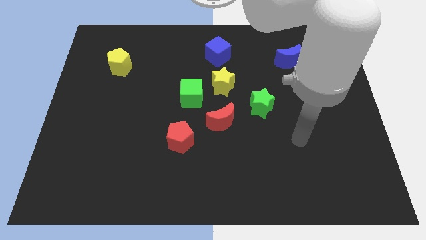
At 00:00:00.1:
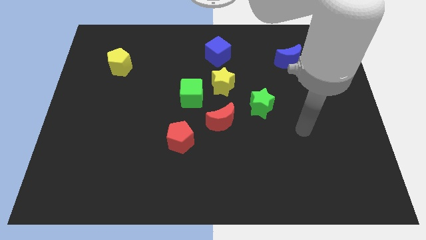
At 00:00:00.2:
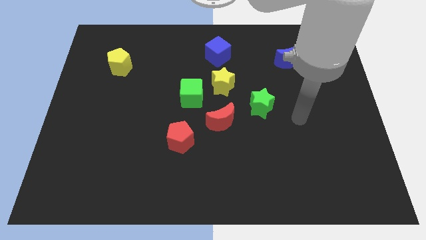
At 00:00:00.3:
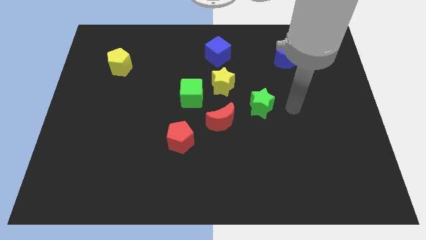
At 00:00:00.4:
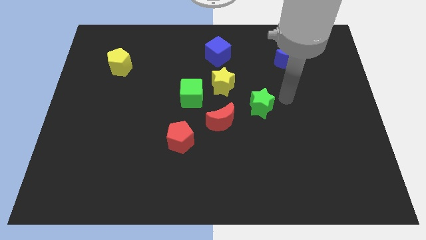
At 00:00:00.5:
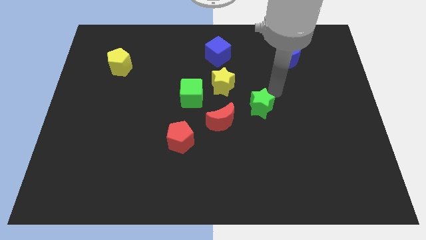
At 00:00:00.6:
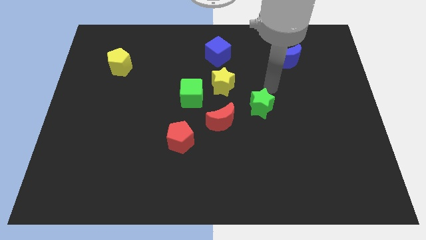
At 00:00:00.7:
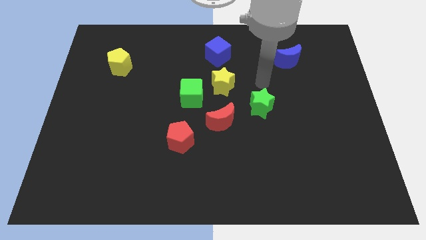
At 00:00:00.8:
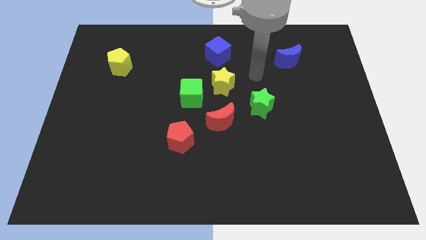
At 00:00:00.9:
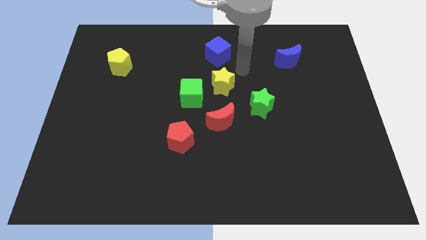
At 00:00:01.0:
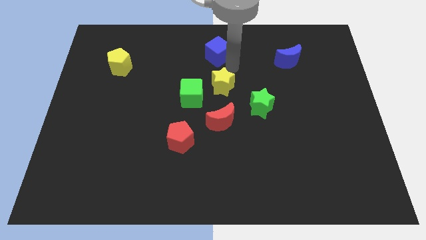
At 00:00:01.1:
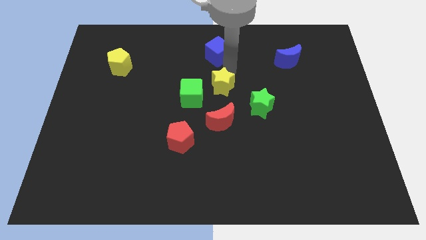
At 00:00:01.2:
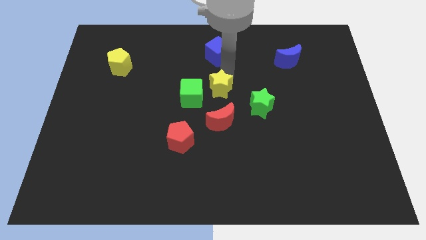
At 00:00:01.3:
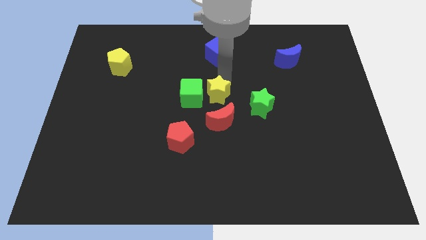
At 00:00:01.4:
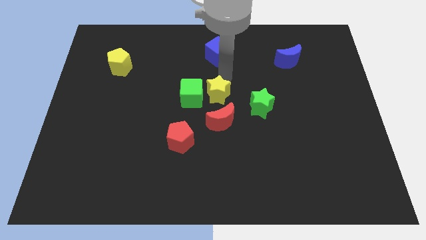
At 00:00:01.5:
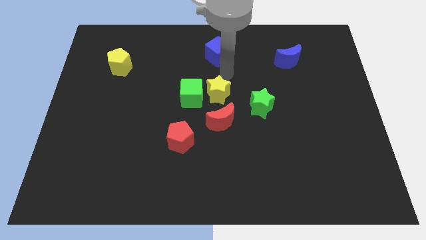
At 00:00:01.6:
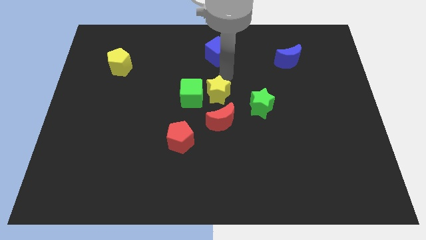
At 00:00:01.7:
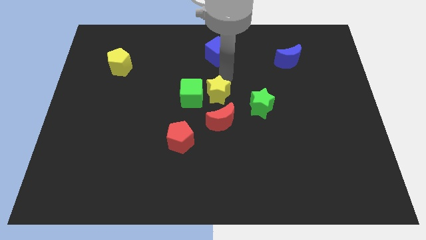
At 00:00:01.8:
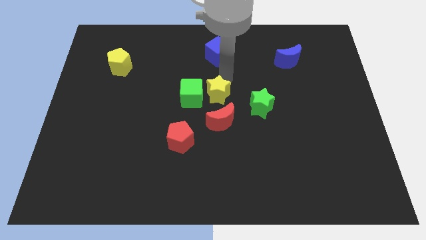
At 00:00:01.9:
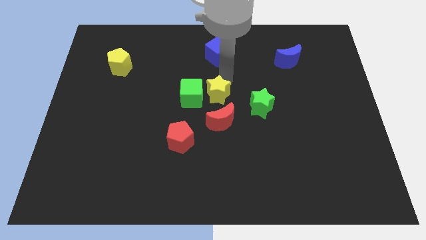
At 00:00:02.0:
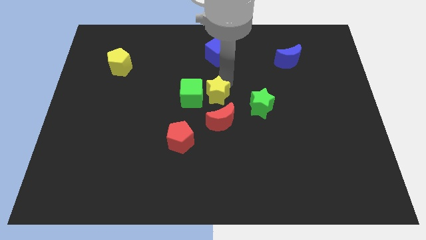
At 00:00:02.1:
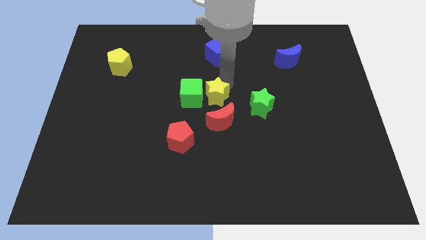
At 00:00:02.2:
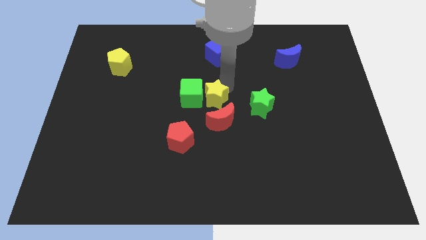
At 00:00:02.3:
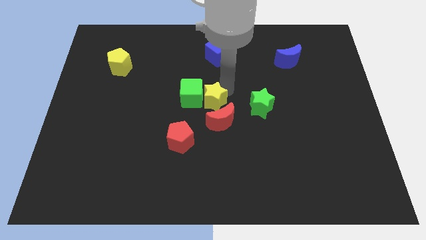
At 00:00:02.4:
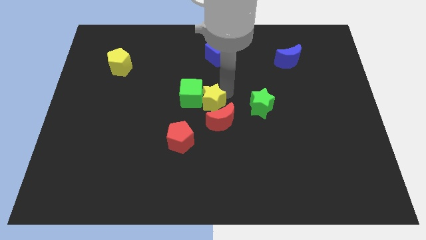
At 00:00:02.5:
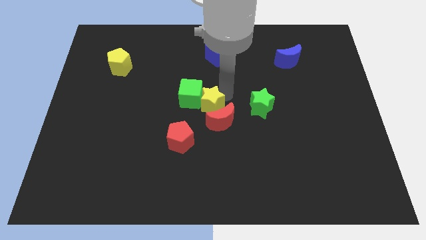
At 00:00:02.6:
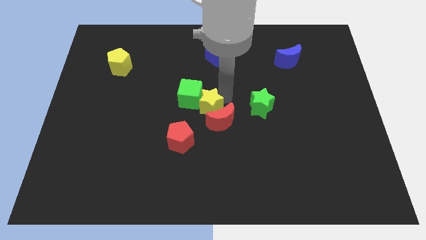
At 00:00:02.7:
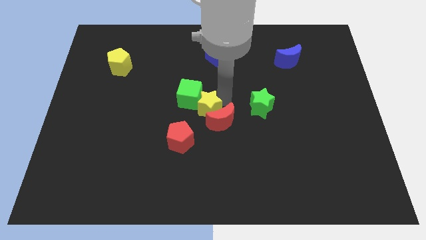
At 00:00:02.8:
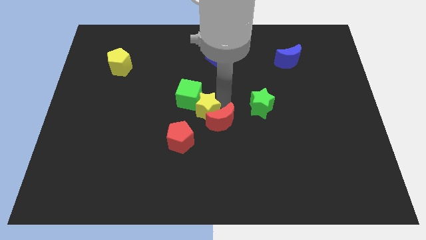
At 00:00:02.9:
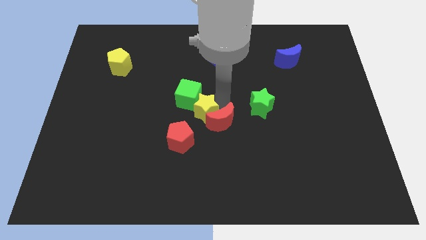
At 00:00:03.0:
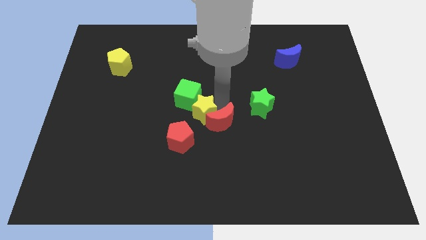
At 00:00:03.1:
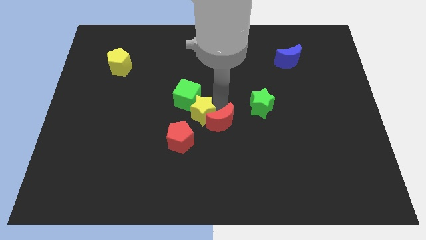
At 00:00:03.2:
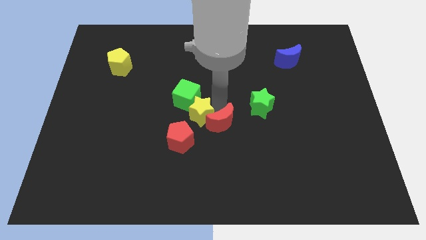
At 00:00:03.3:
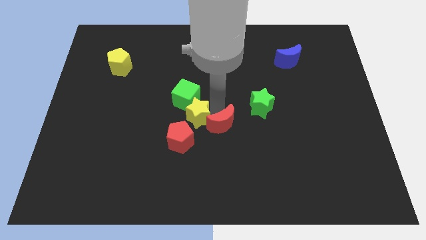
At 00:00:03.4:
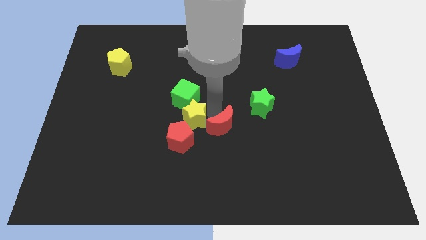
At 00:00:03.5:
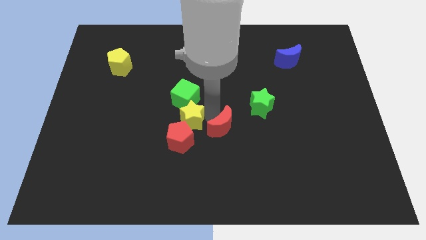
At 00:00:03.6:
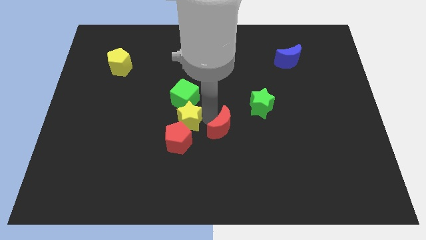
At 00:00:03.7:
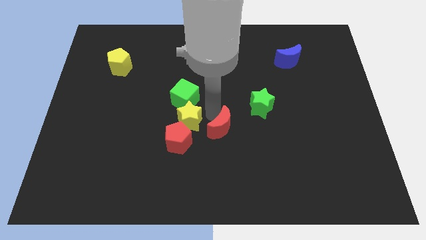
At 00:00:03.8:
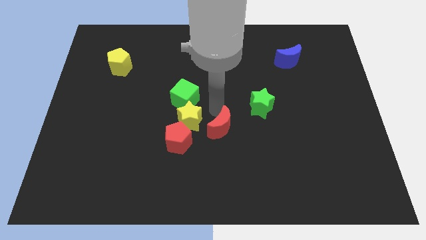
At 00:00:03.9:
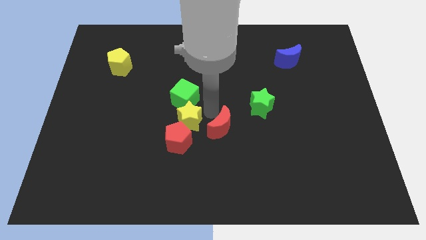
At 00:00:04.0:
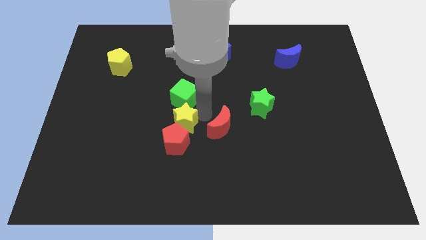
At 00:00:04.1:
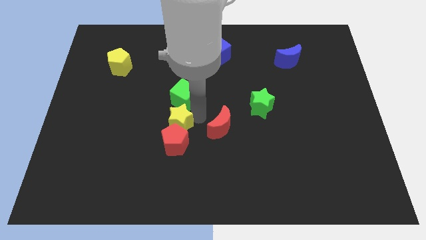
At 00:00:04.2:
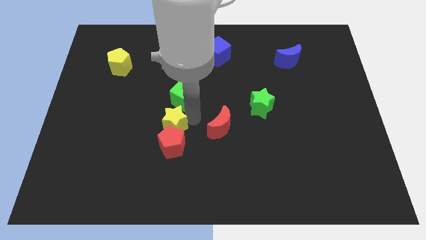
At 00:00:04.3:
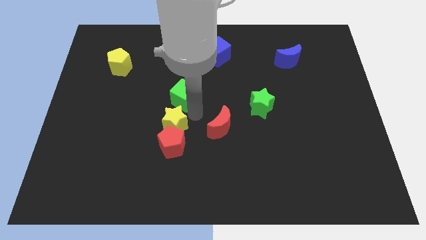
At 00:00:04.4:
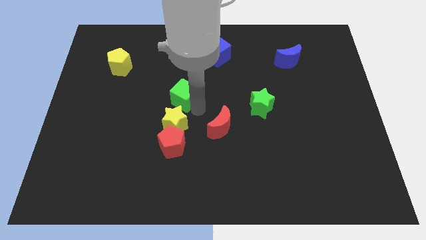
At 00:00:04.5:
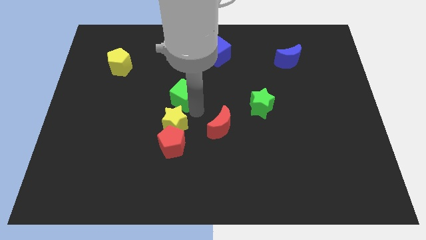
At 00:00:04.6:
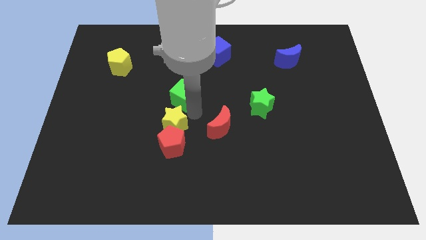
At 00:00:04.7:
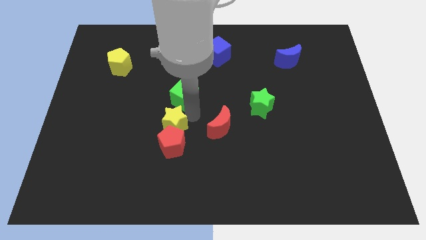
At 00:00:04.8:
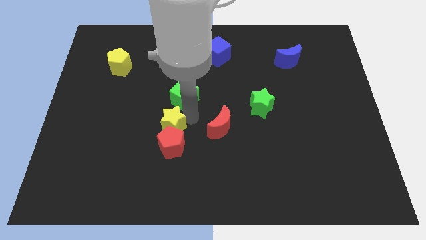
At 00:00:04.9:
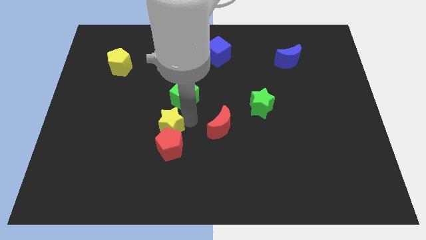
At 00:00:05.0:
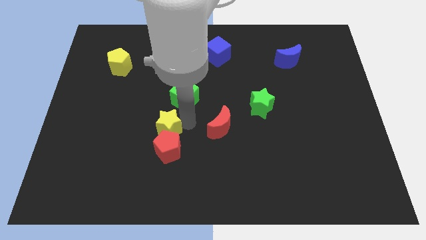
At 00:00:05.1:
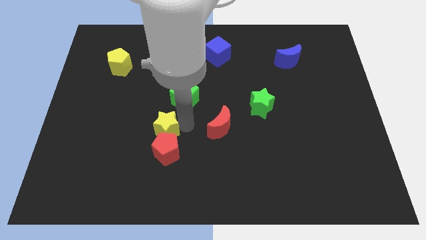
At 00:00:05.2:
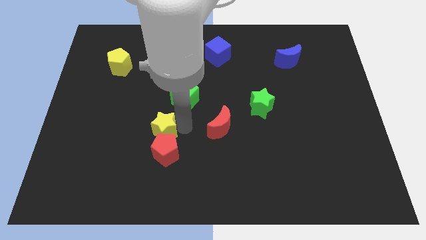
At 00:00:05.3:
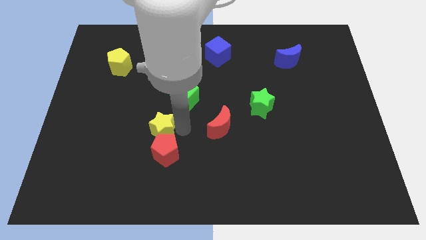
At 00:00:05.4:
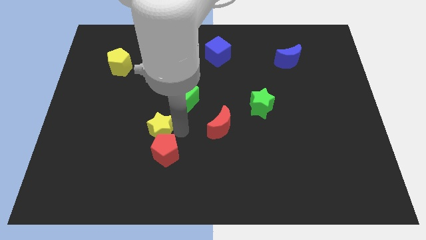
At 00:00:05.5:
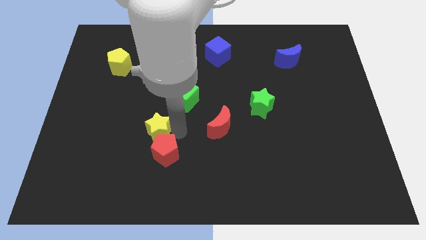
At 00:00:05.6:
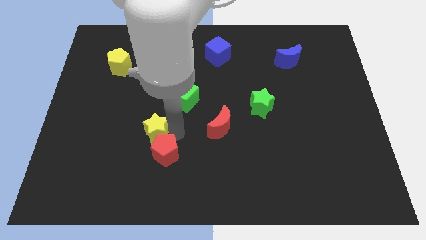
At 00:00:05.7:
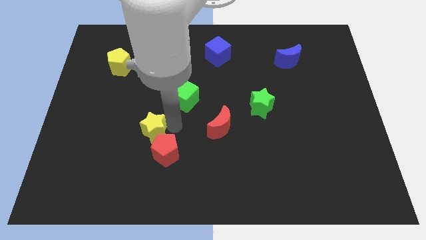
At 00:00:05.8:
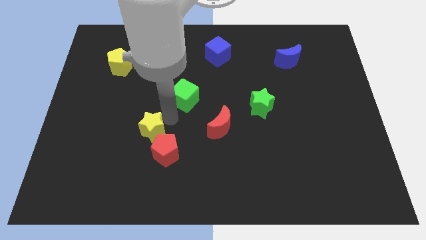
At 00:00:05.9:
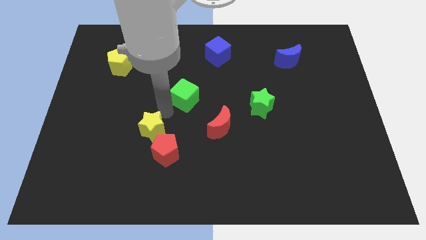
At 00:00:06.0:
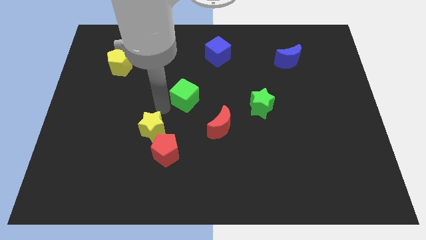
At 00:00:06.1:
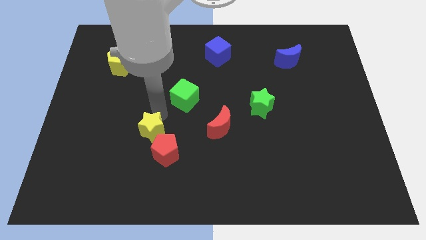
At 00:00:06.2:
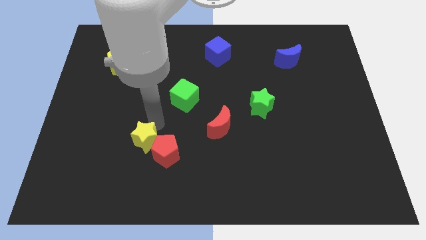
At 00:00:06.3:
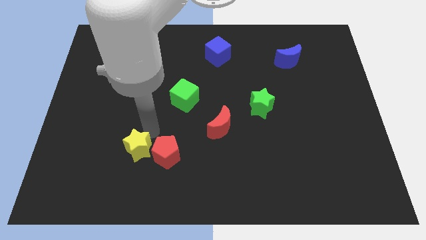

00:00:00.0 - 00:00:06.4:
push the yellow star to the bottom left of the red pentagon

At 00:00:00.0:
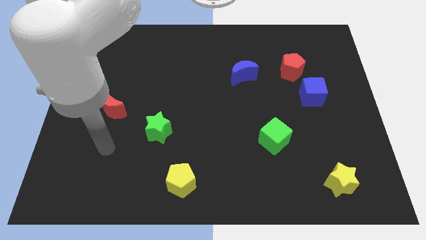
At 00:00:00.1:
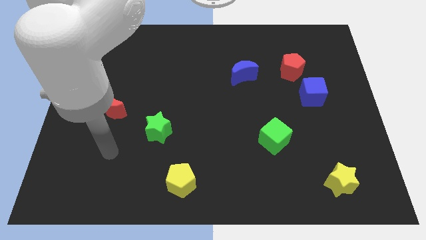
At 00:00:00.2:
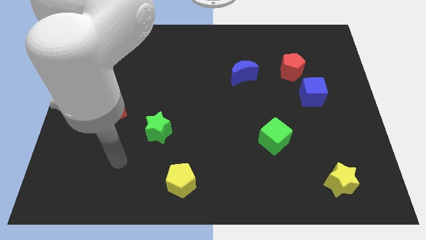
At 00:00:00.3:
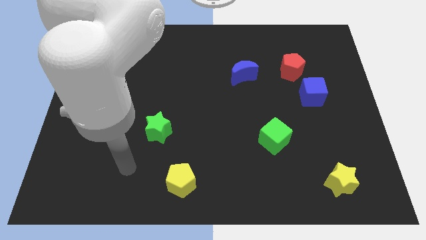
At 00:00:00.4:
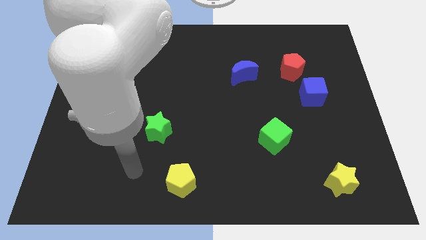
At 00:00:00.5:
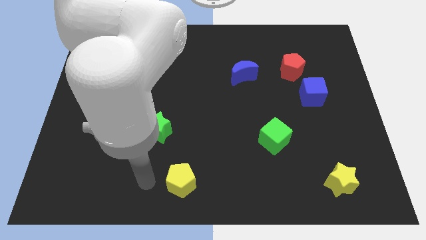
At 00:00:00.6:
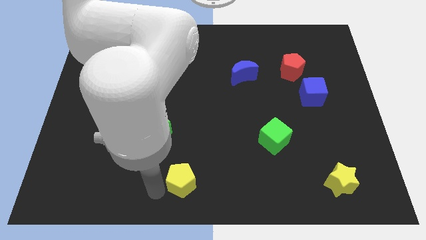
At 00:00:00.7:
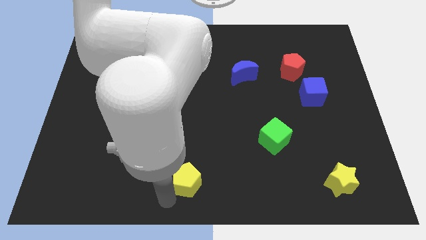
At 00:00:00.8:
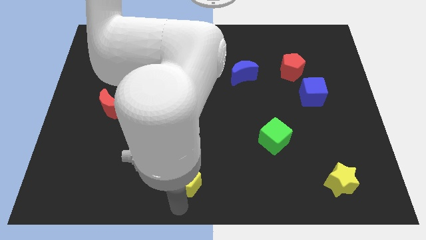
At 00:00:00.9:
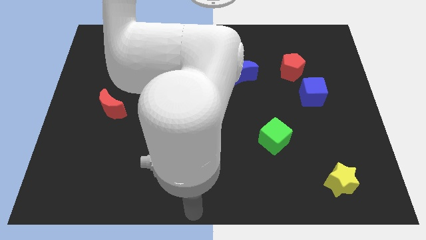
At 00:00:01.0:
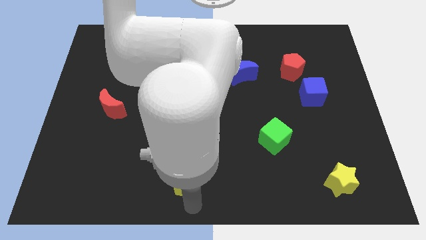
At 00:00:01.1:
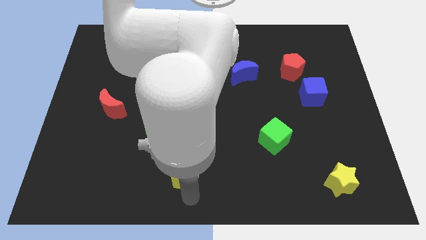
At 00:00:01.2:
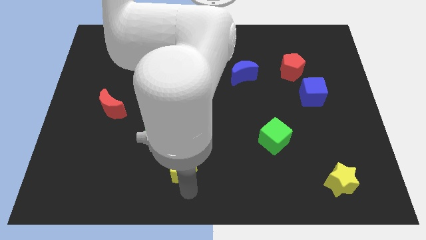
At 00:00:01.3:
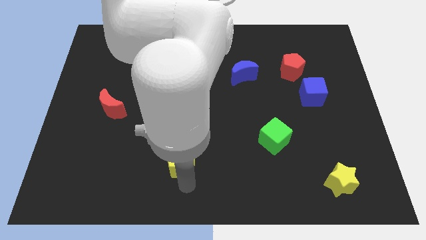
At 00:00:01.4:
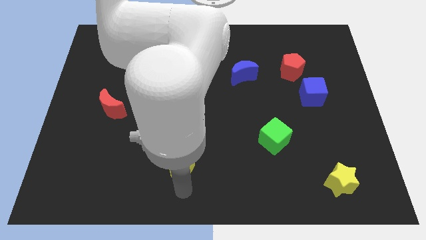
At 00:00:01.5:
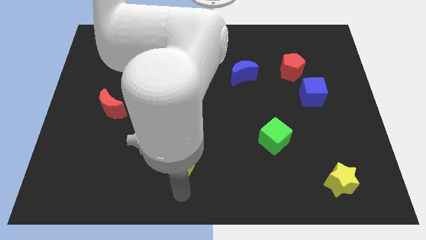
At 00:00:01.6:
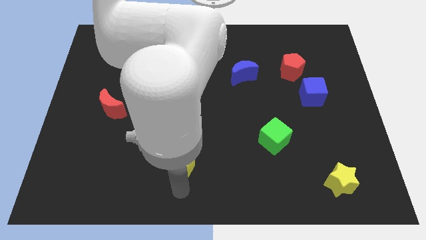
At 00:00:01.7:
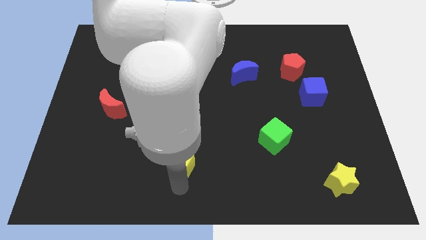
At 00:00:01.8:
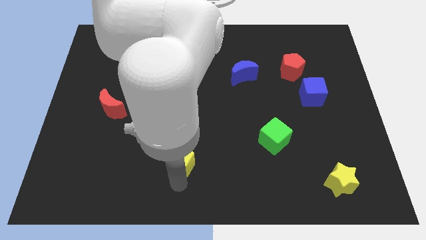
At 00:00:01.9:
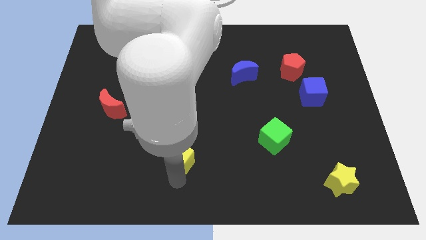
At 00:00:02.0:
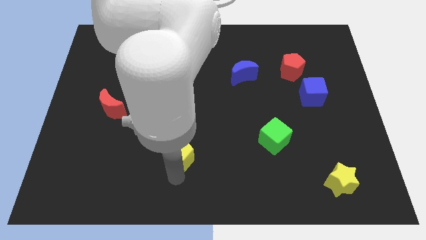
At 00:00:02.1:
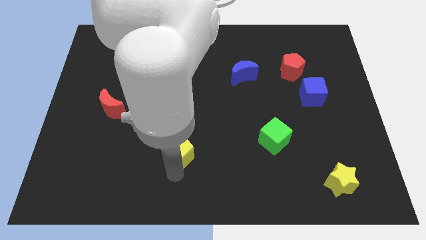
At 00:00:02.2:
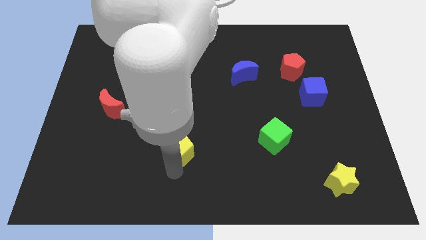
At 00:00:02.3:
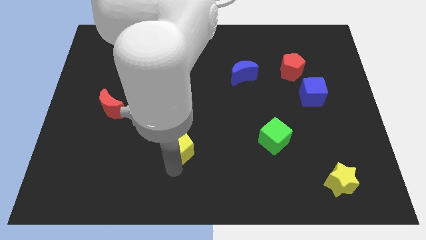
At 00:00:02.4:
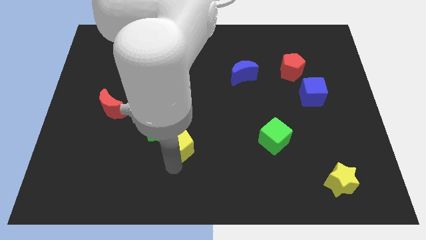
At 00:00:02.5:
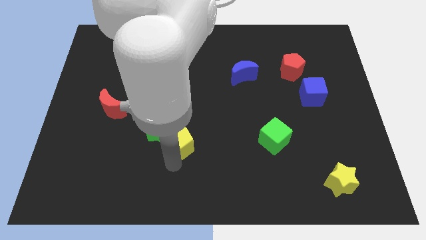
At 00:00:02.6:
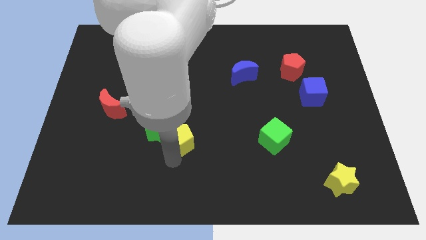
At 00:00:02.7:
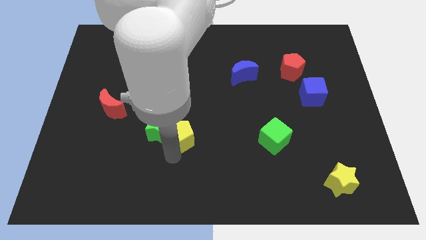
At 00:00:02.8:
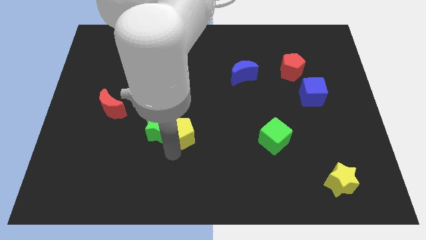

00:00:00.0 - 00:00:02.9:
put the yellow pentagon to the top right side of the green star
